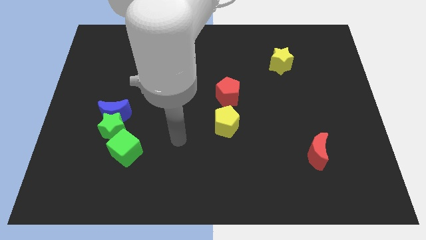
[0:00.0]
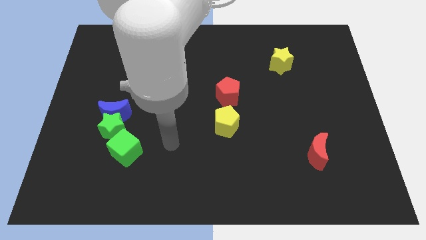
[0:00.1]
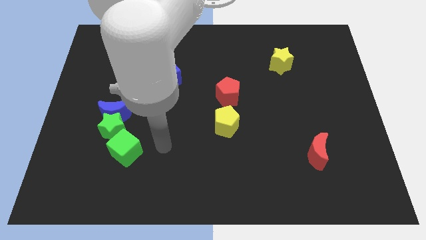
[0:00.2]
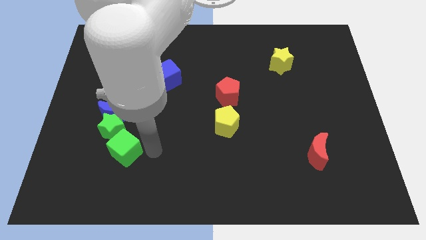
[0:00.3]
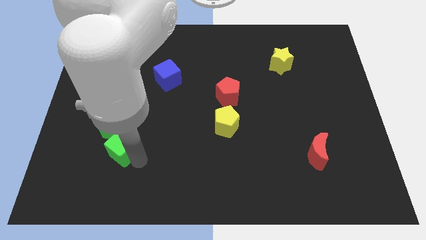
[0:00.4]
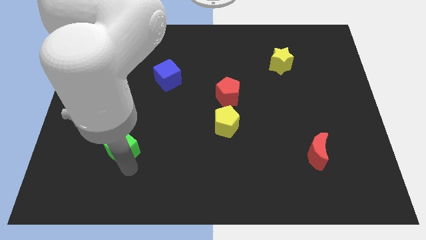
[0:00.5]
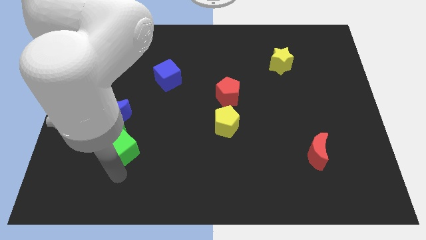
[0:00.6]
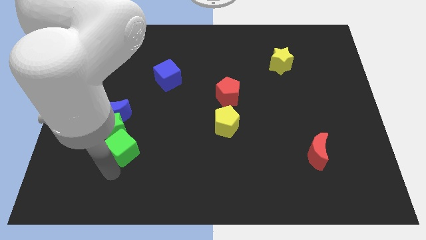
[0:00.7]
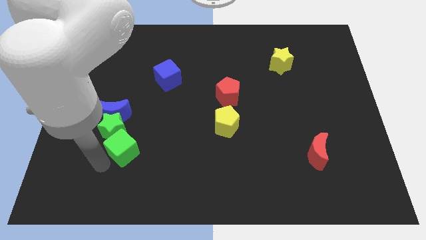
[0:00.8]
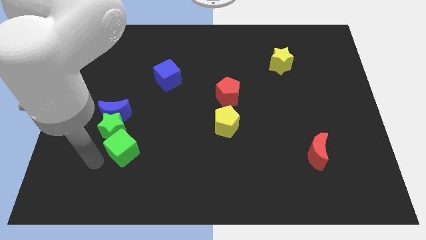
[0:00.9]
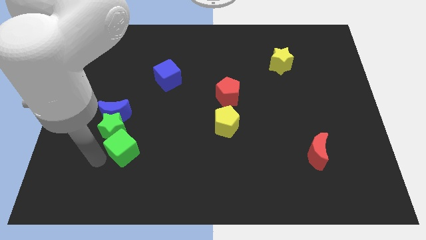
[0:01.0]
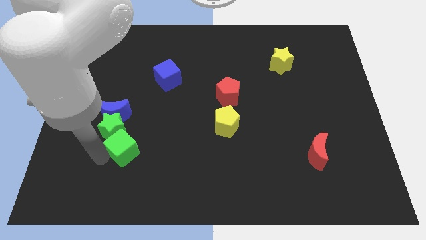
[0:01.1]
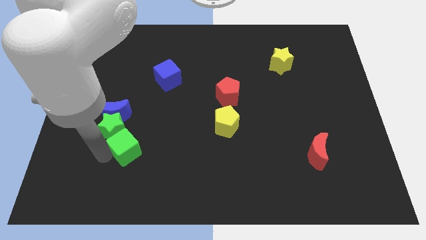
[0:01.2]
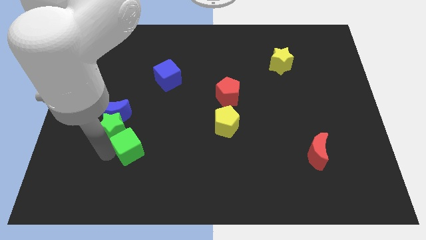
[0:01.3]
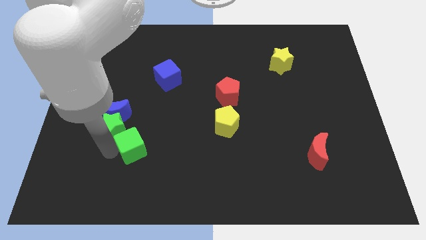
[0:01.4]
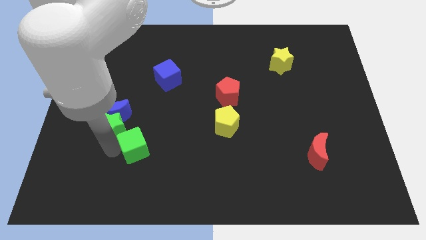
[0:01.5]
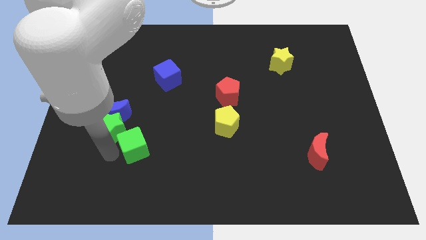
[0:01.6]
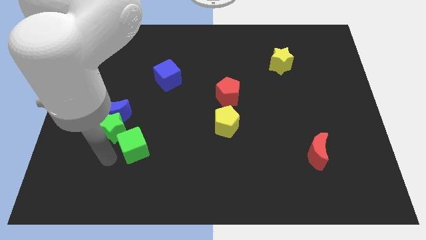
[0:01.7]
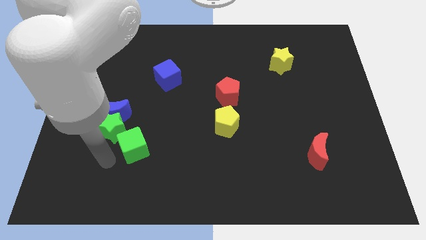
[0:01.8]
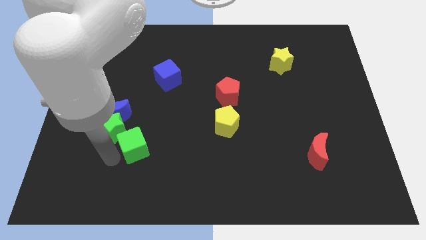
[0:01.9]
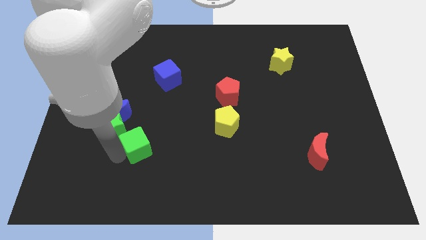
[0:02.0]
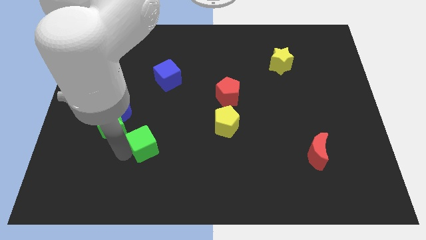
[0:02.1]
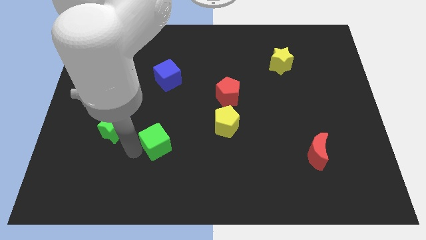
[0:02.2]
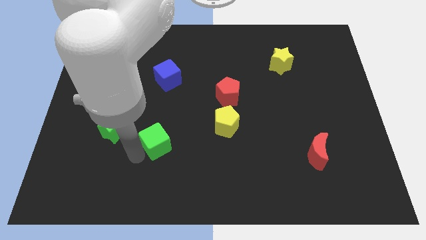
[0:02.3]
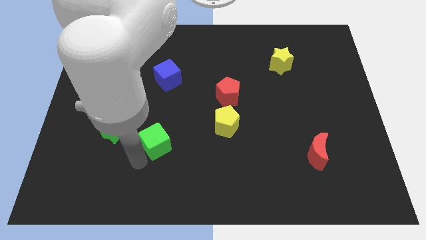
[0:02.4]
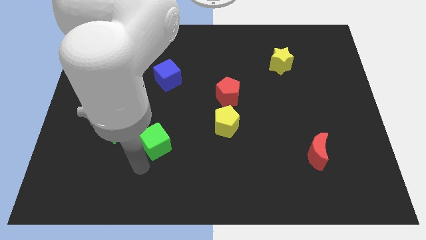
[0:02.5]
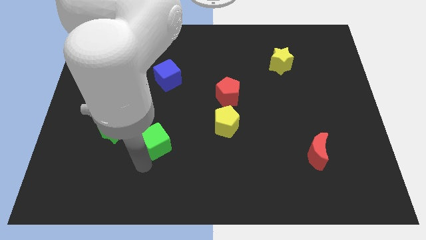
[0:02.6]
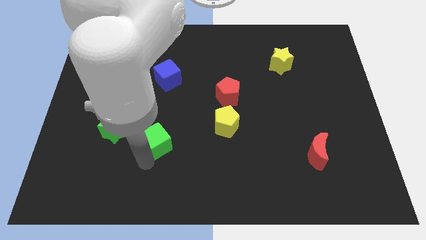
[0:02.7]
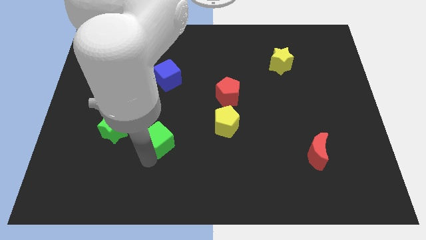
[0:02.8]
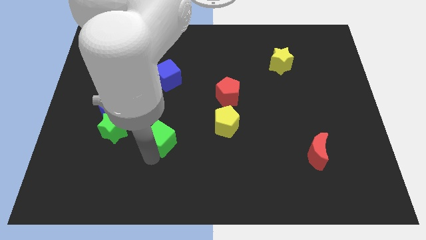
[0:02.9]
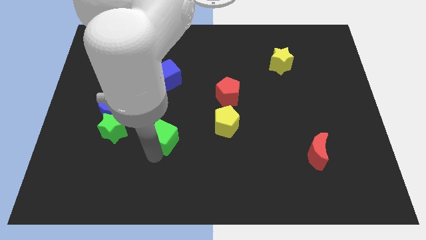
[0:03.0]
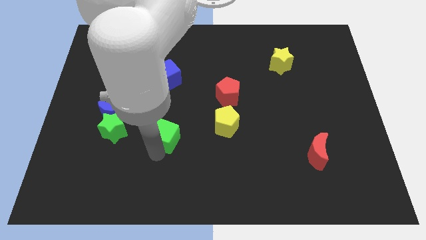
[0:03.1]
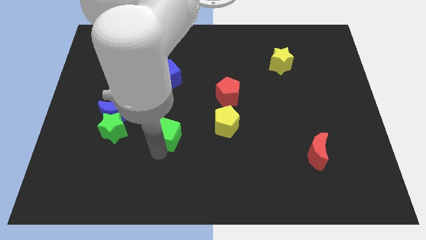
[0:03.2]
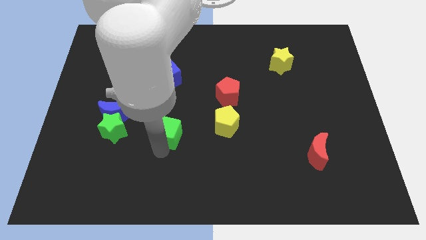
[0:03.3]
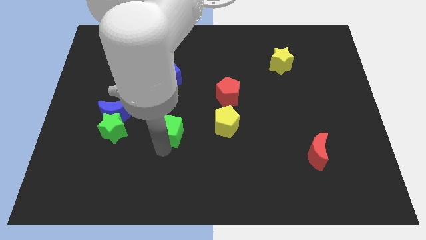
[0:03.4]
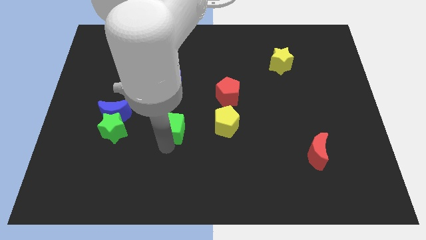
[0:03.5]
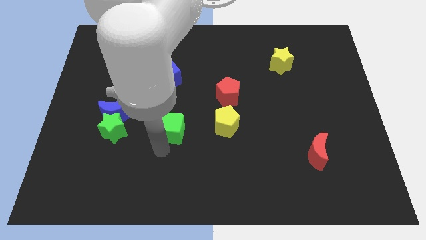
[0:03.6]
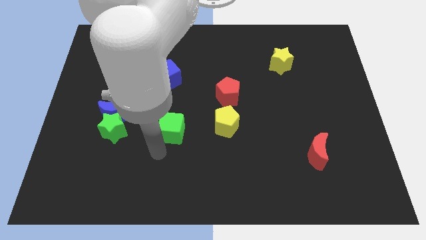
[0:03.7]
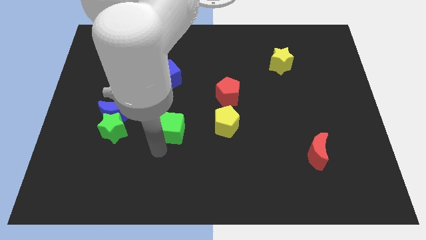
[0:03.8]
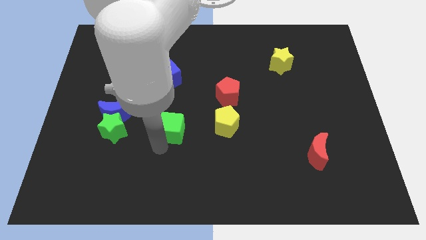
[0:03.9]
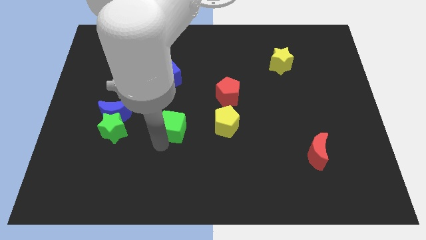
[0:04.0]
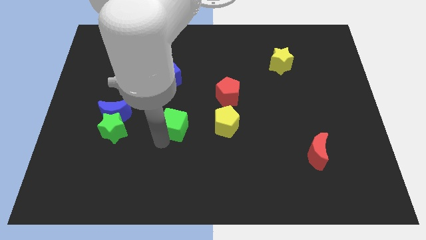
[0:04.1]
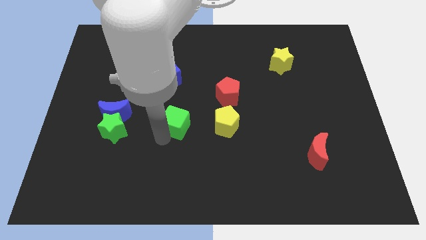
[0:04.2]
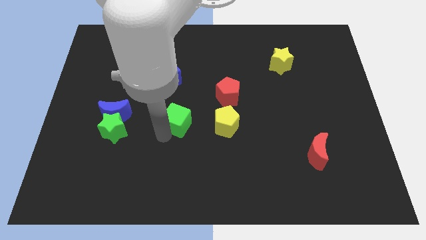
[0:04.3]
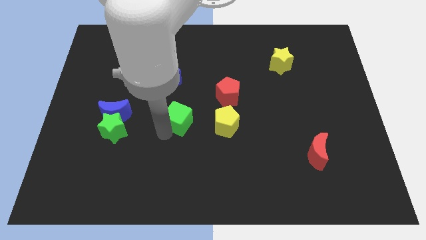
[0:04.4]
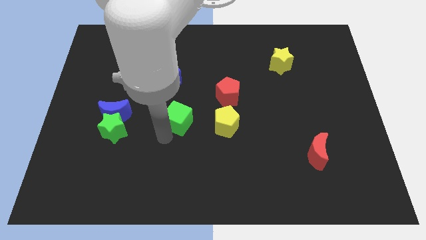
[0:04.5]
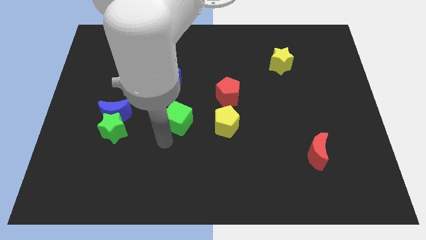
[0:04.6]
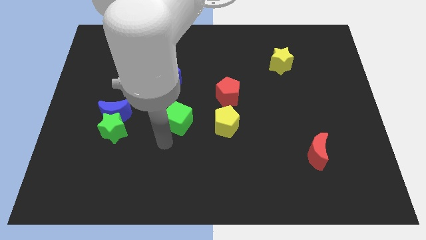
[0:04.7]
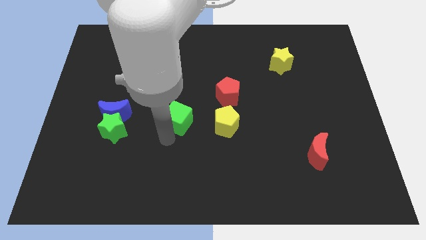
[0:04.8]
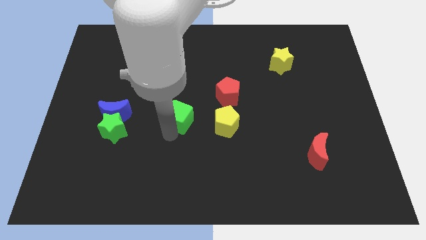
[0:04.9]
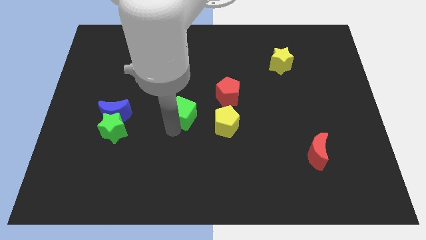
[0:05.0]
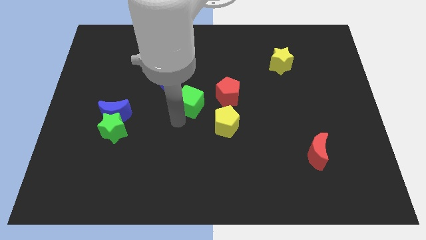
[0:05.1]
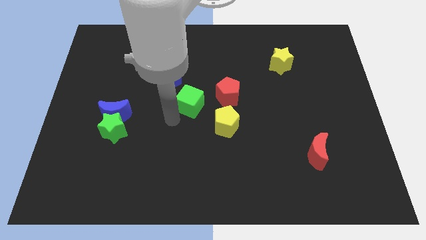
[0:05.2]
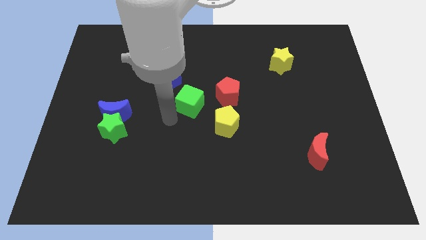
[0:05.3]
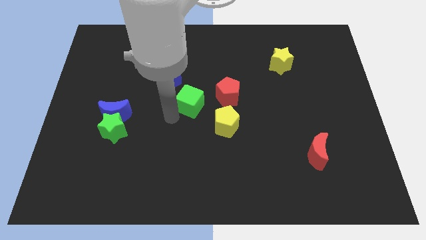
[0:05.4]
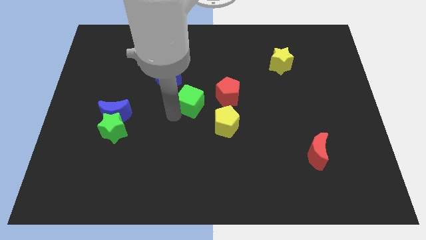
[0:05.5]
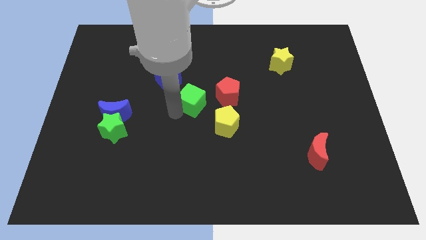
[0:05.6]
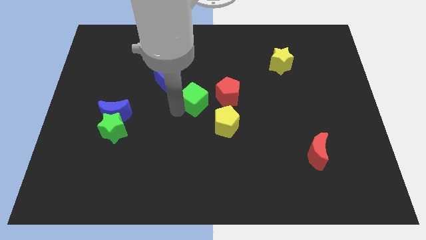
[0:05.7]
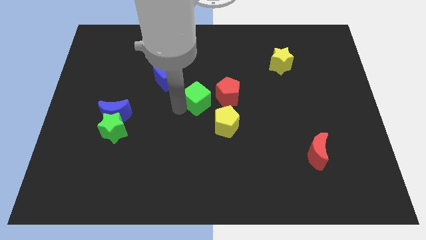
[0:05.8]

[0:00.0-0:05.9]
push the green cube diagonally up and right

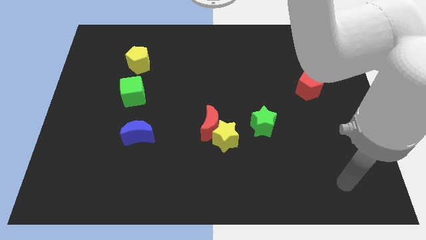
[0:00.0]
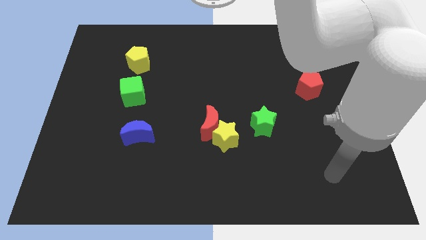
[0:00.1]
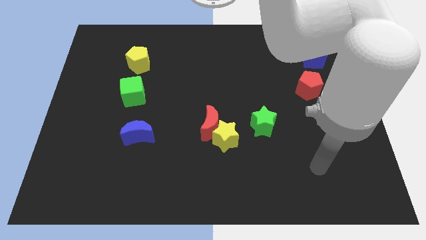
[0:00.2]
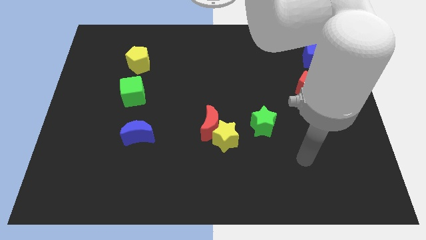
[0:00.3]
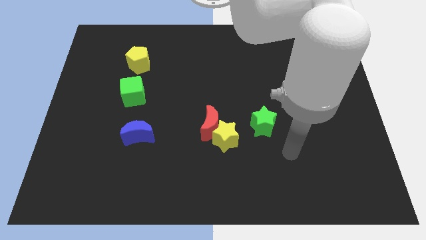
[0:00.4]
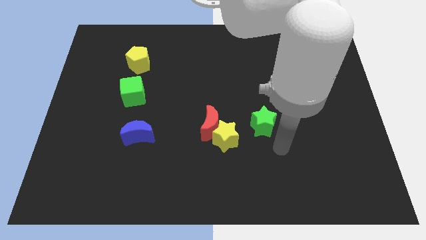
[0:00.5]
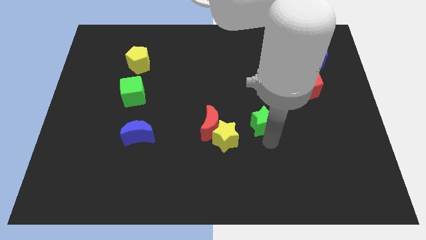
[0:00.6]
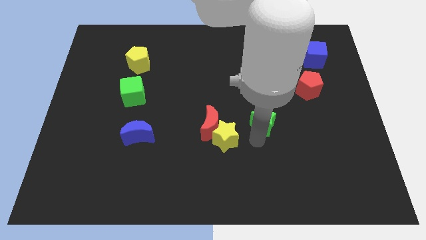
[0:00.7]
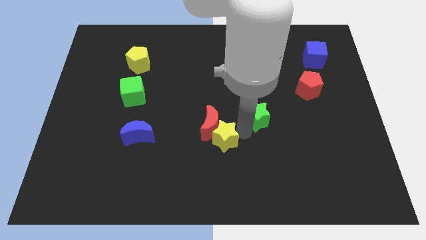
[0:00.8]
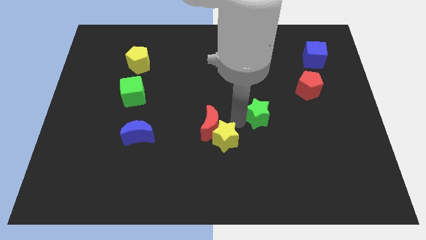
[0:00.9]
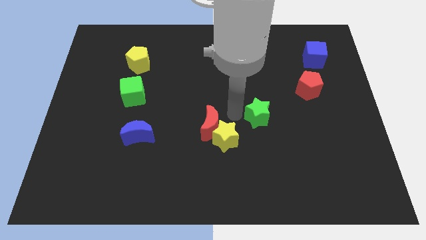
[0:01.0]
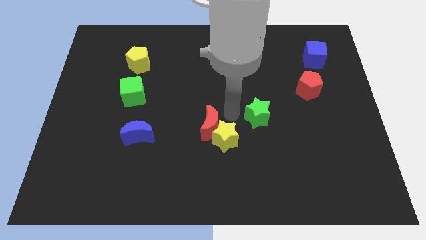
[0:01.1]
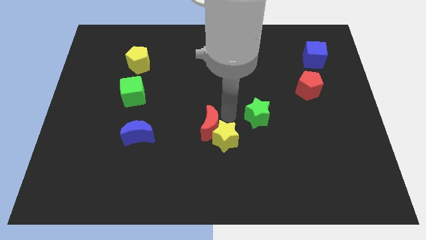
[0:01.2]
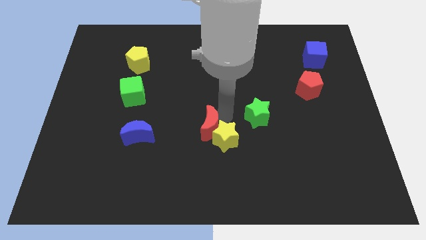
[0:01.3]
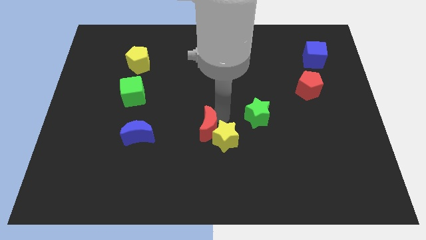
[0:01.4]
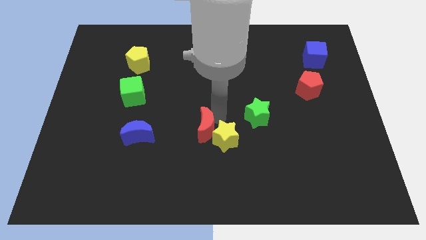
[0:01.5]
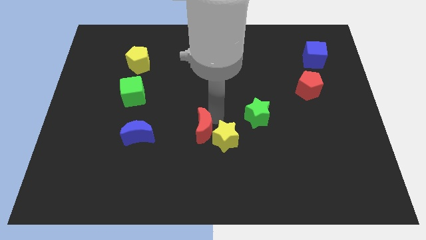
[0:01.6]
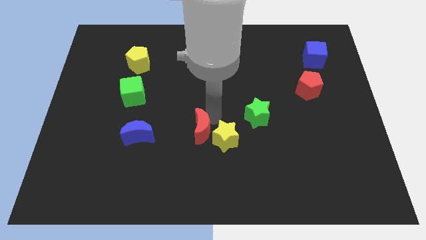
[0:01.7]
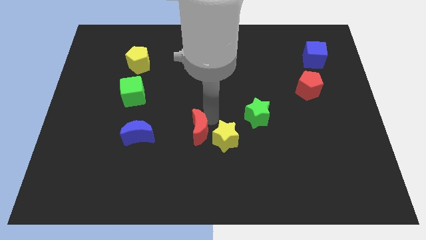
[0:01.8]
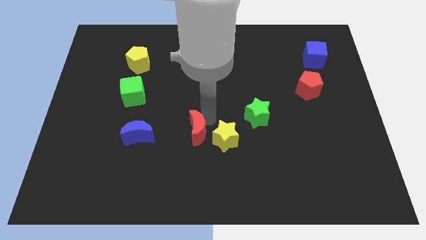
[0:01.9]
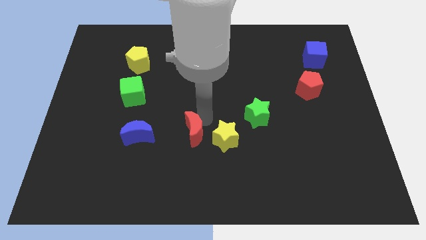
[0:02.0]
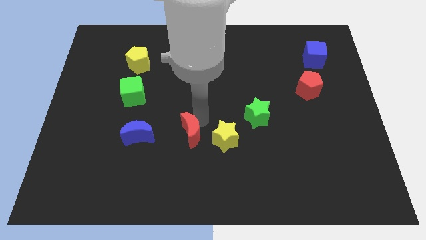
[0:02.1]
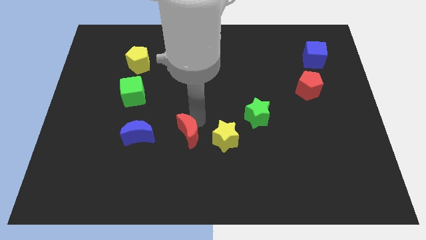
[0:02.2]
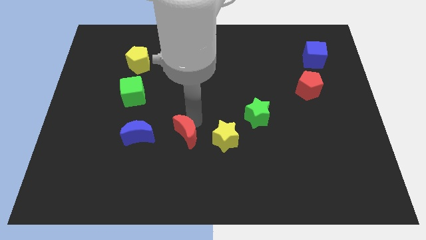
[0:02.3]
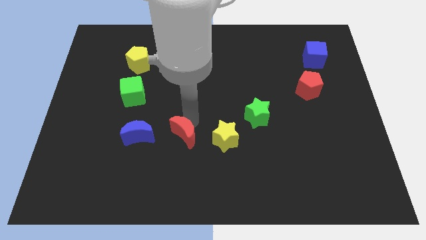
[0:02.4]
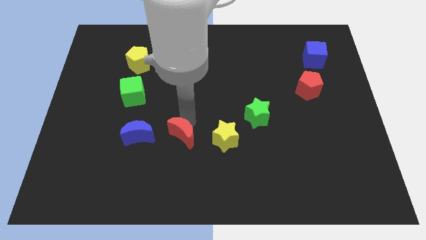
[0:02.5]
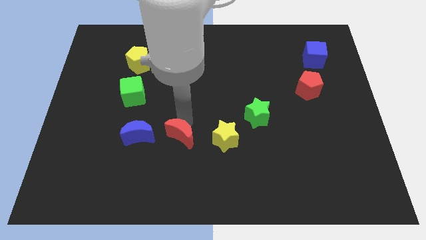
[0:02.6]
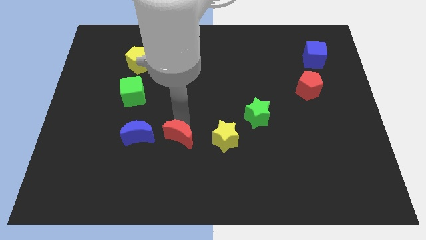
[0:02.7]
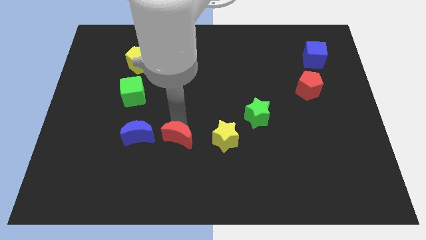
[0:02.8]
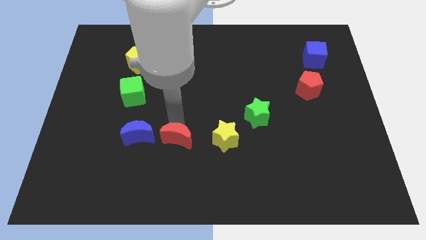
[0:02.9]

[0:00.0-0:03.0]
slightly push the red moon downwards and to the left diagonally
